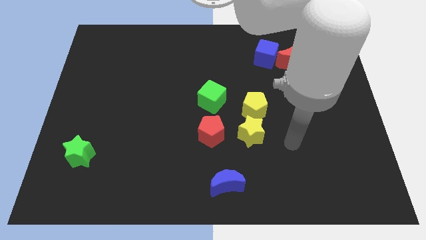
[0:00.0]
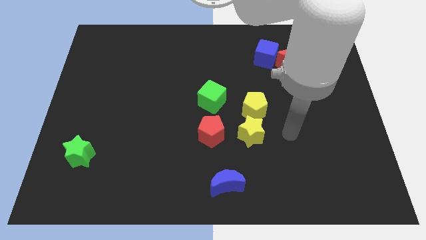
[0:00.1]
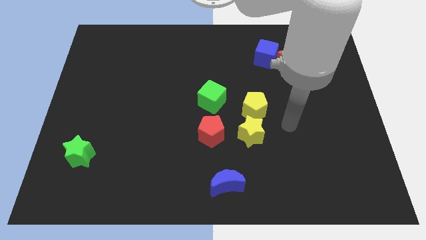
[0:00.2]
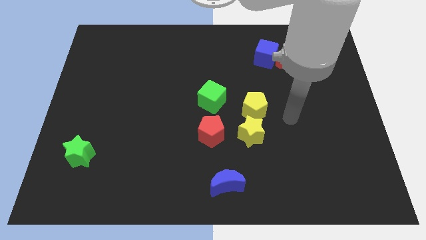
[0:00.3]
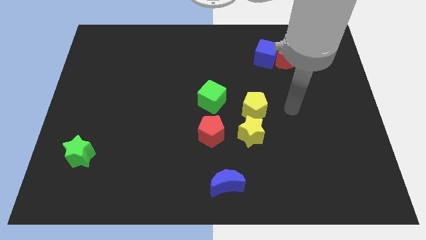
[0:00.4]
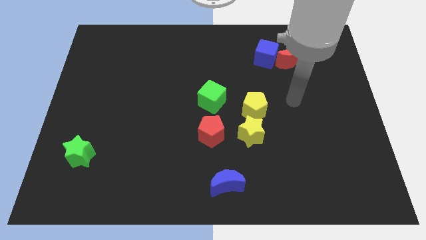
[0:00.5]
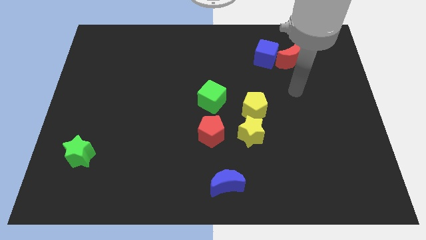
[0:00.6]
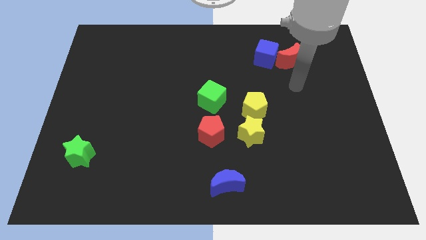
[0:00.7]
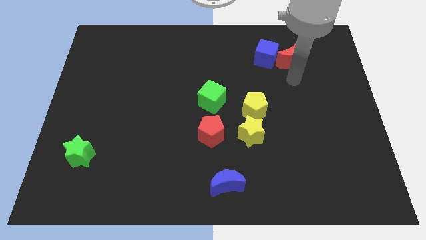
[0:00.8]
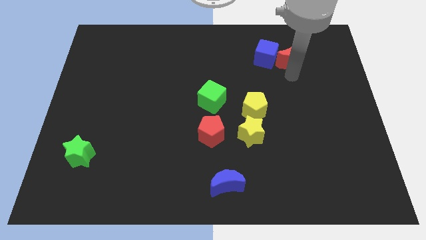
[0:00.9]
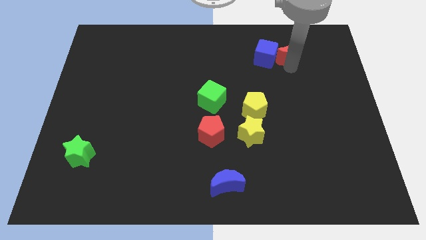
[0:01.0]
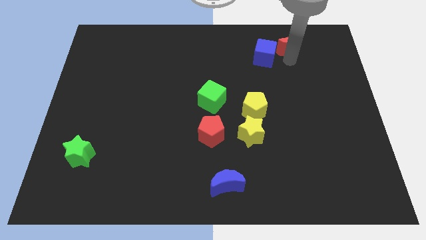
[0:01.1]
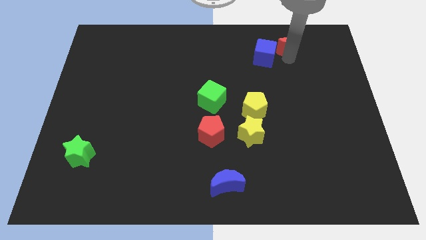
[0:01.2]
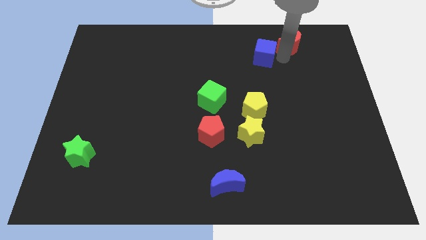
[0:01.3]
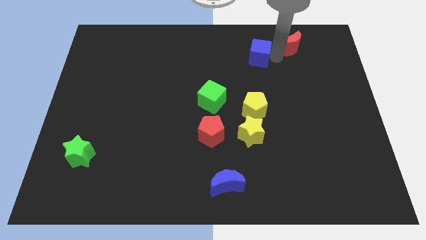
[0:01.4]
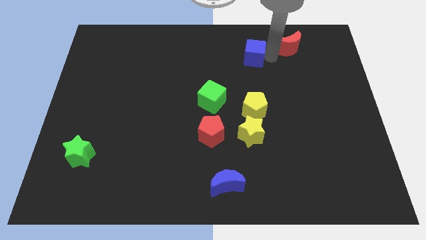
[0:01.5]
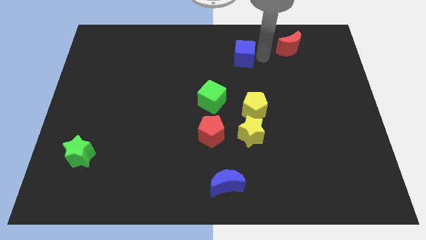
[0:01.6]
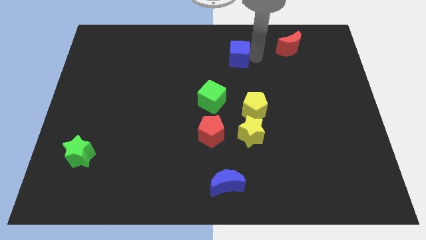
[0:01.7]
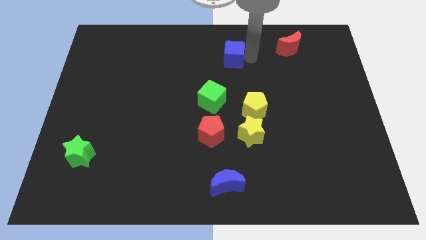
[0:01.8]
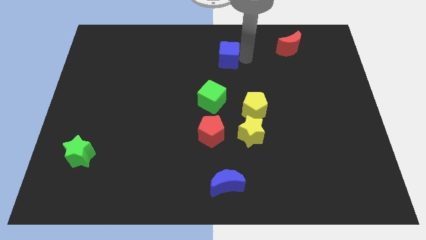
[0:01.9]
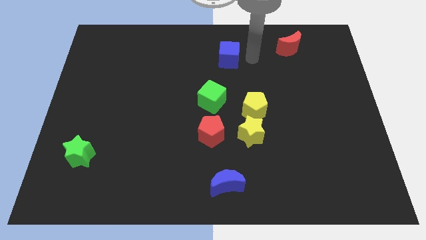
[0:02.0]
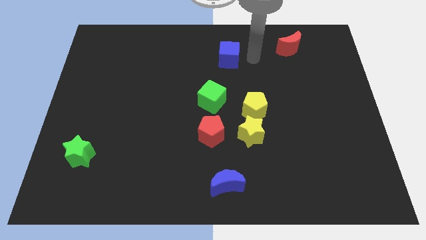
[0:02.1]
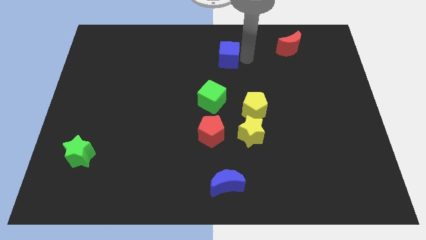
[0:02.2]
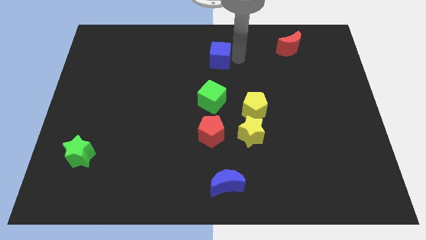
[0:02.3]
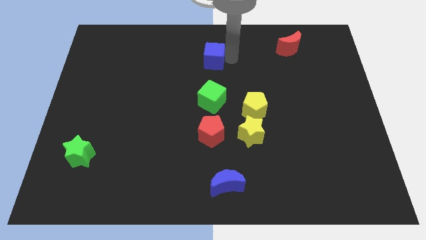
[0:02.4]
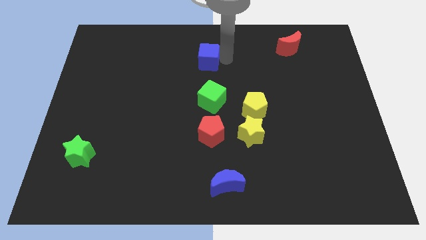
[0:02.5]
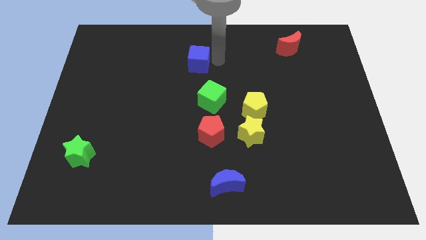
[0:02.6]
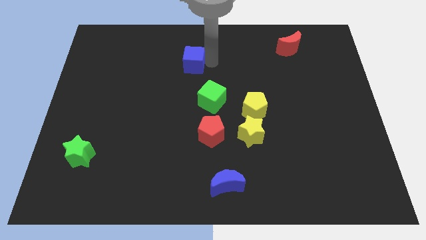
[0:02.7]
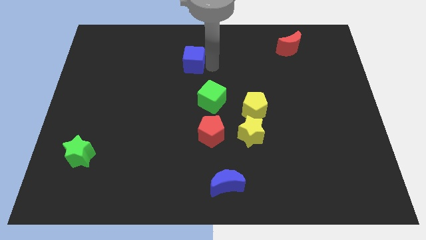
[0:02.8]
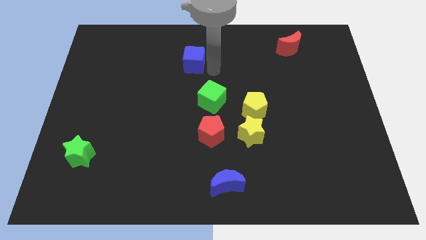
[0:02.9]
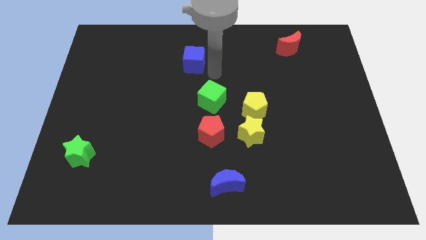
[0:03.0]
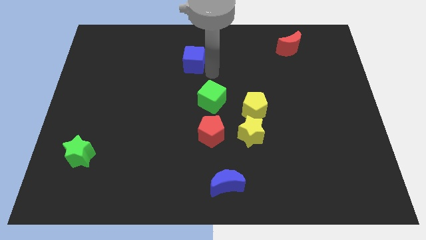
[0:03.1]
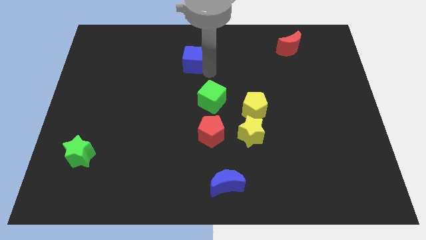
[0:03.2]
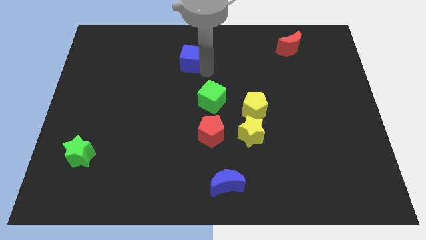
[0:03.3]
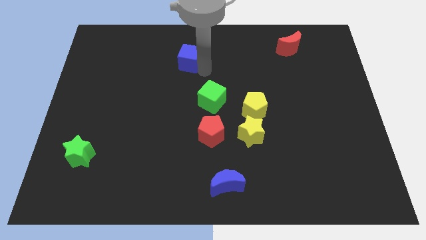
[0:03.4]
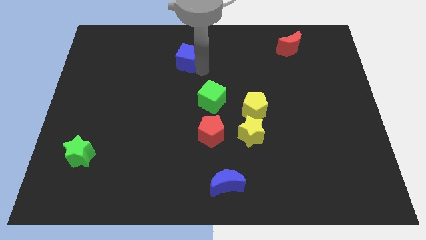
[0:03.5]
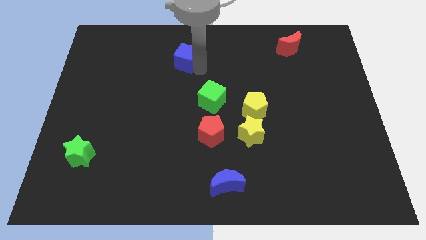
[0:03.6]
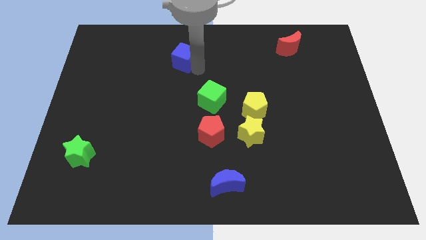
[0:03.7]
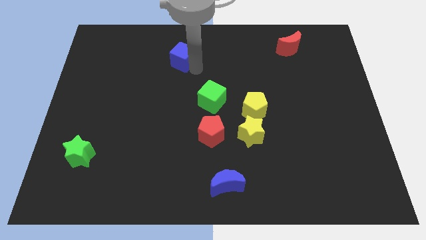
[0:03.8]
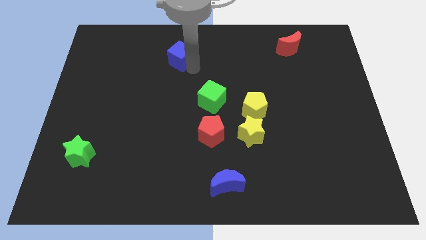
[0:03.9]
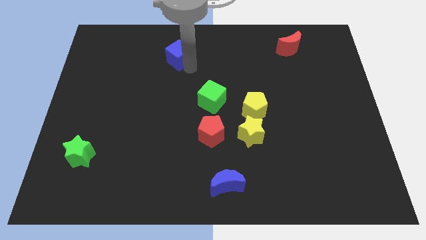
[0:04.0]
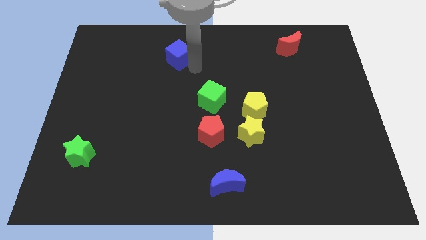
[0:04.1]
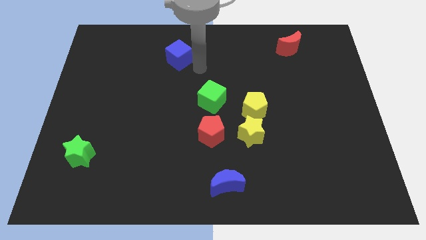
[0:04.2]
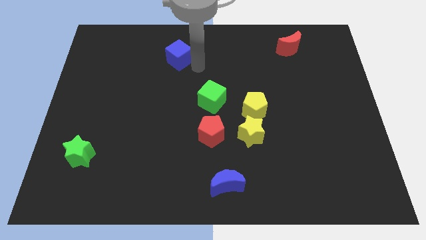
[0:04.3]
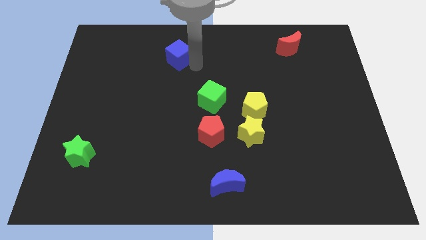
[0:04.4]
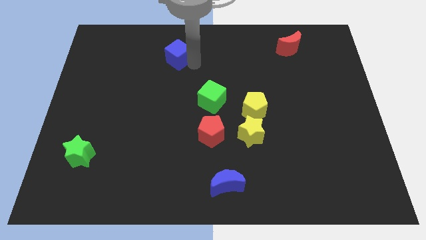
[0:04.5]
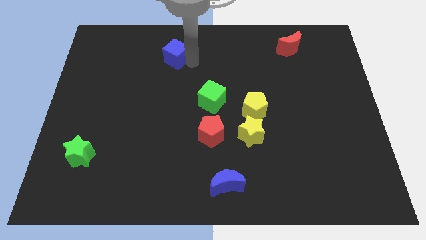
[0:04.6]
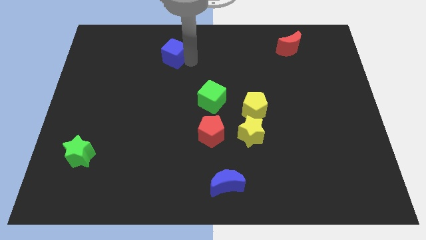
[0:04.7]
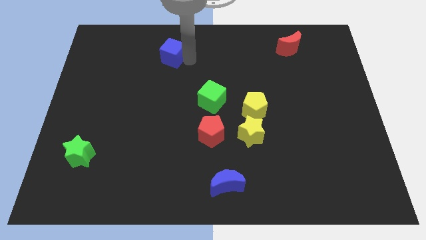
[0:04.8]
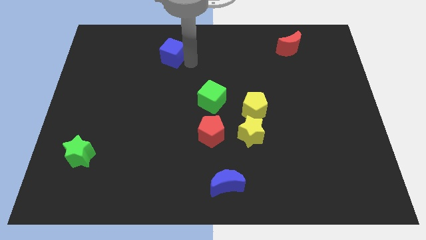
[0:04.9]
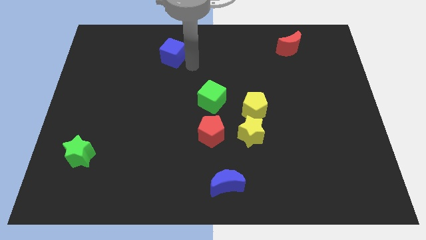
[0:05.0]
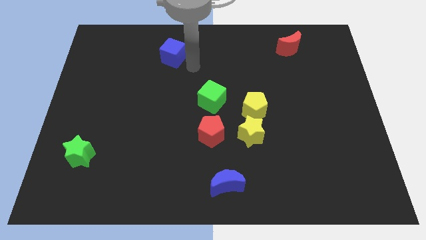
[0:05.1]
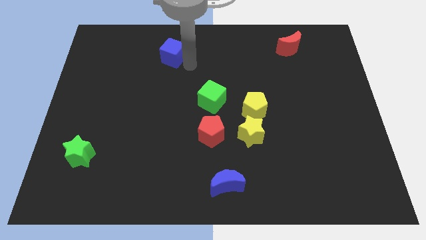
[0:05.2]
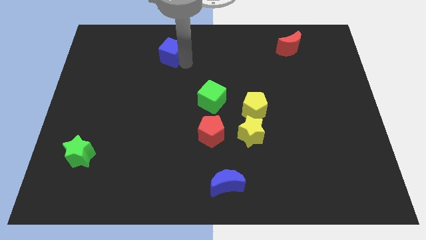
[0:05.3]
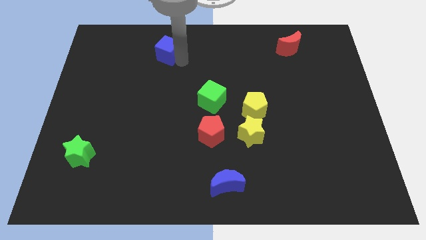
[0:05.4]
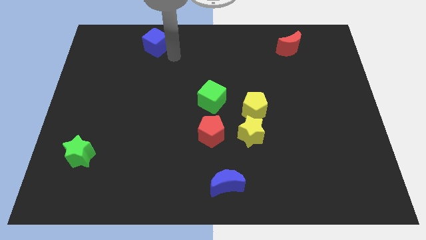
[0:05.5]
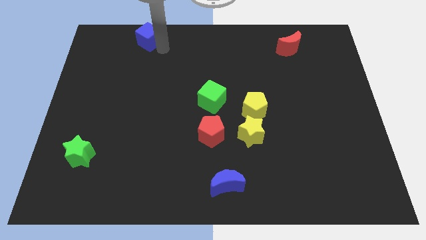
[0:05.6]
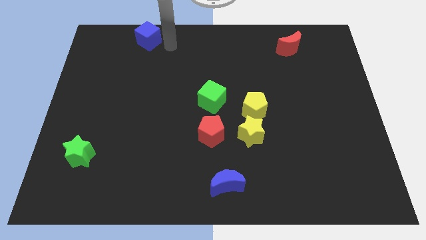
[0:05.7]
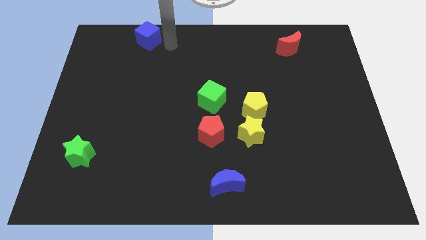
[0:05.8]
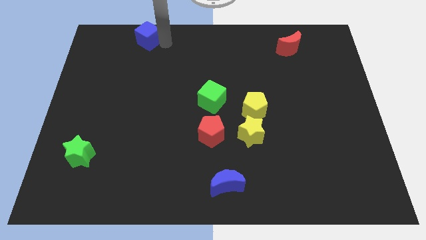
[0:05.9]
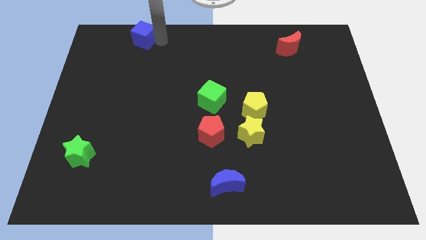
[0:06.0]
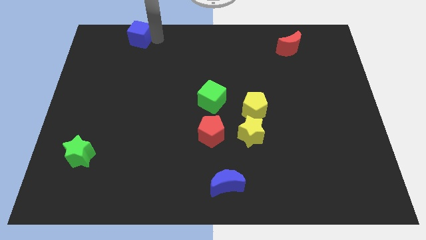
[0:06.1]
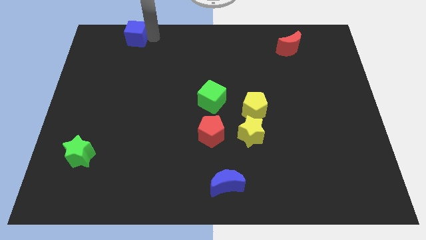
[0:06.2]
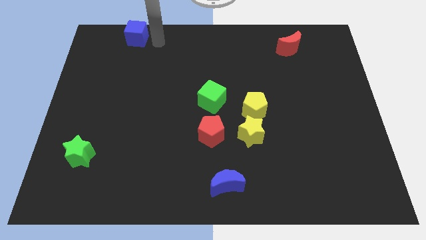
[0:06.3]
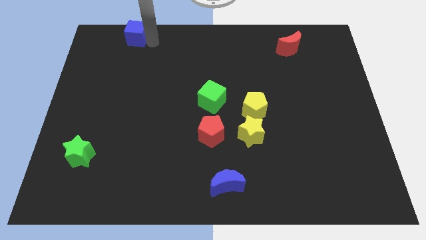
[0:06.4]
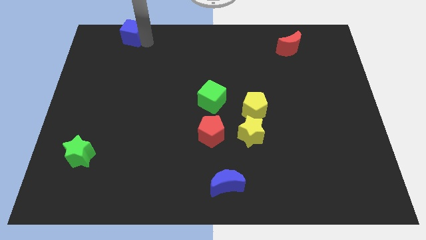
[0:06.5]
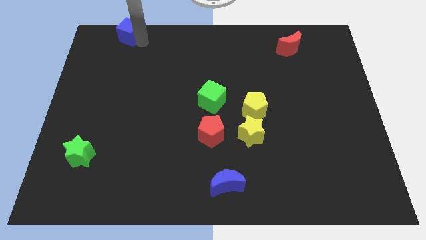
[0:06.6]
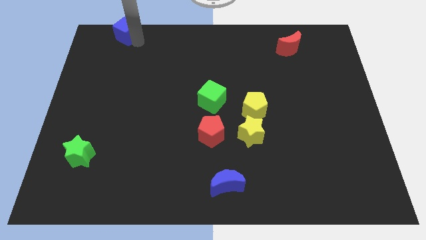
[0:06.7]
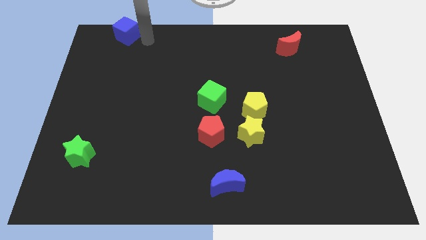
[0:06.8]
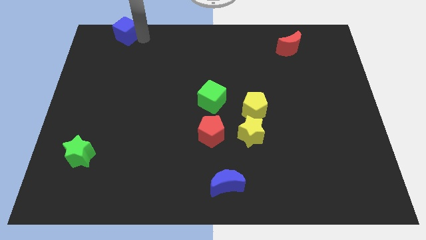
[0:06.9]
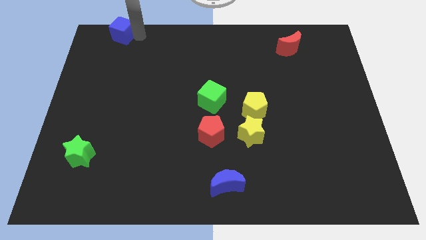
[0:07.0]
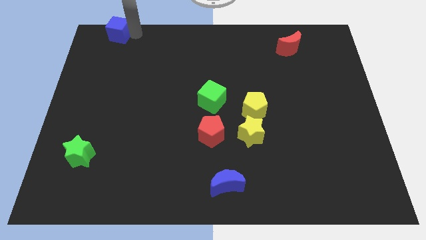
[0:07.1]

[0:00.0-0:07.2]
slide the blue cube to the top left of the board
